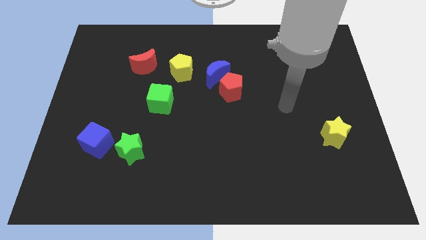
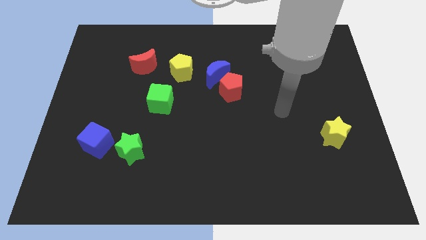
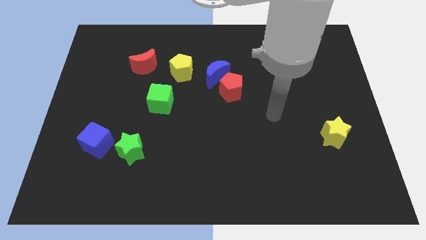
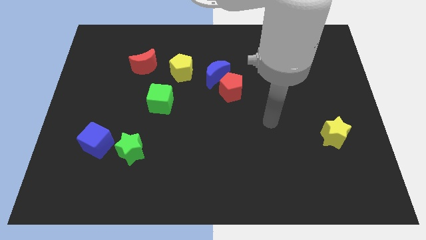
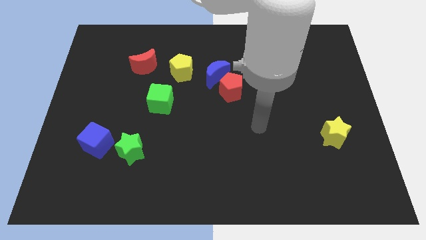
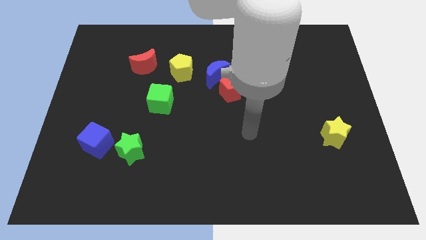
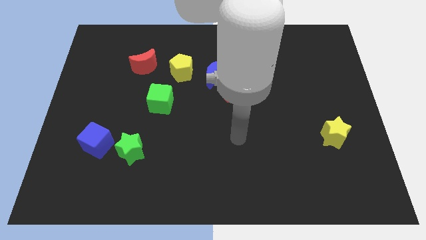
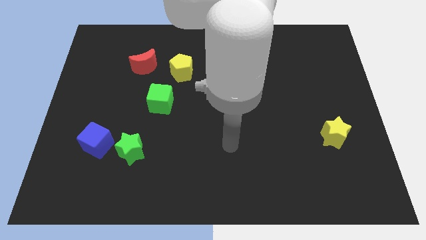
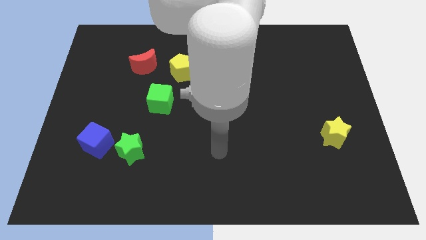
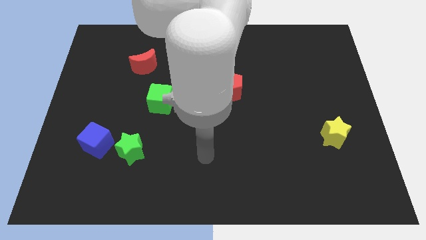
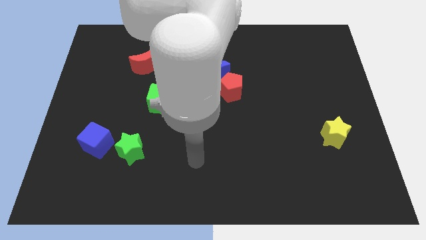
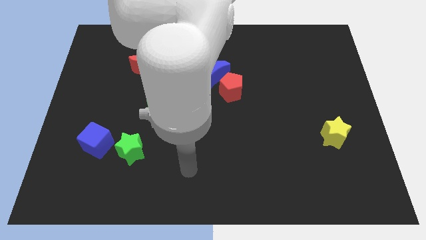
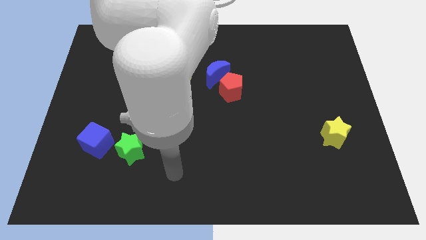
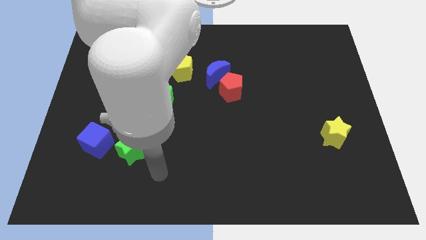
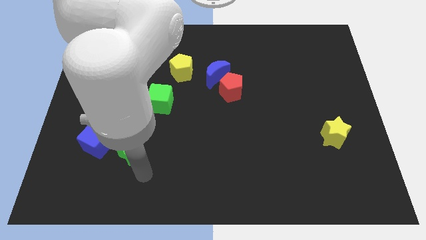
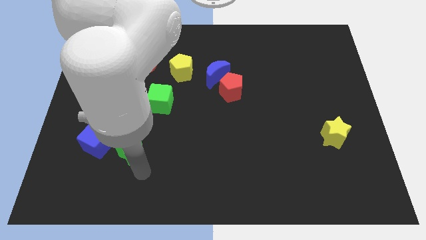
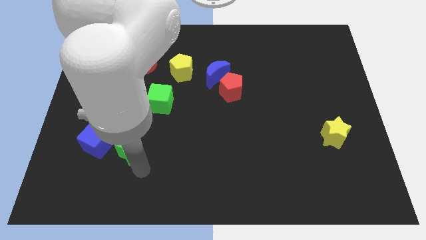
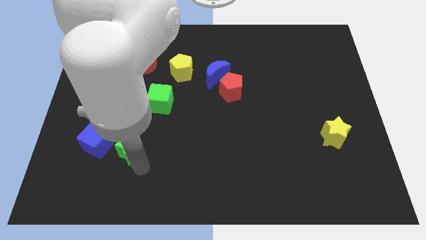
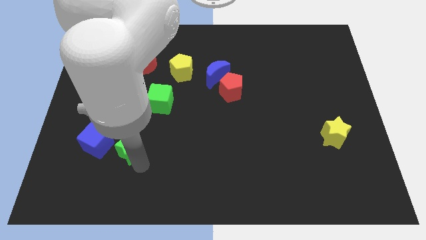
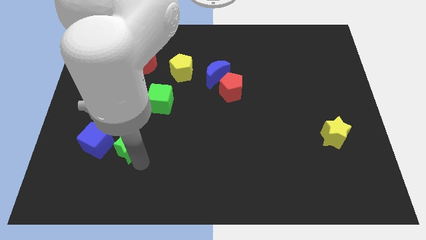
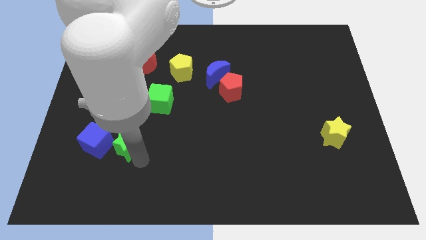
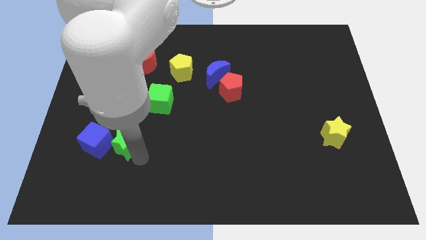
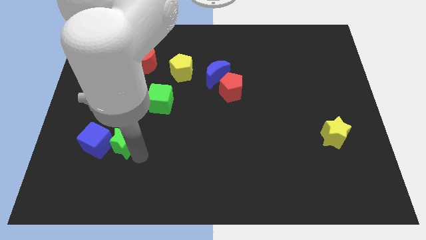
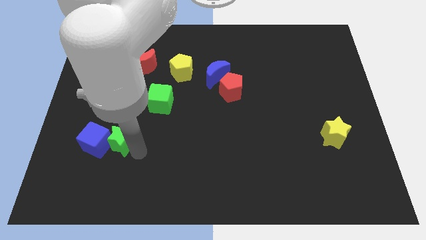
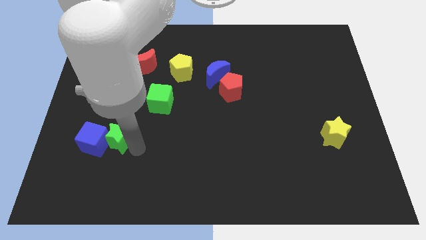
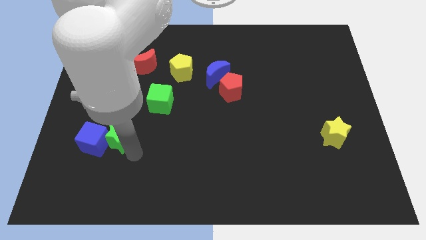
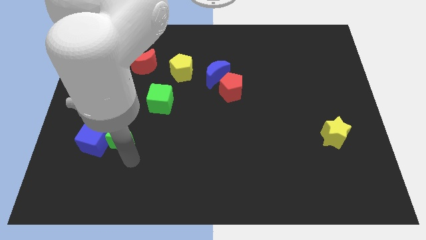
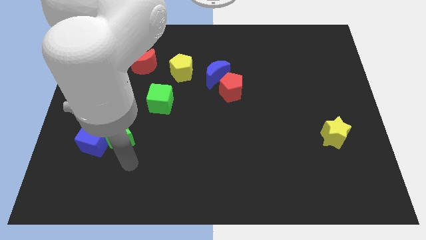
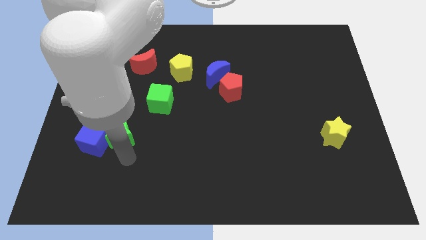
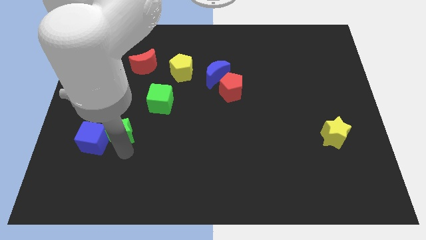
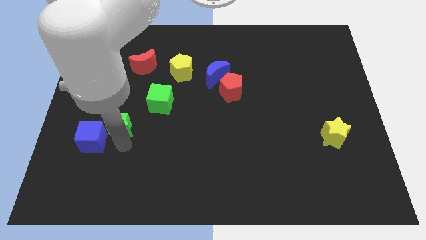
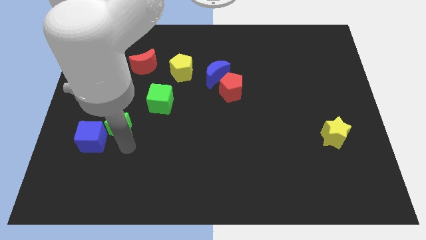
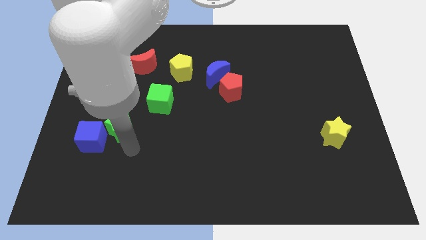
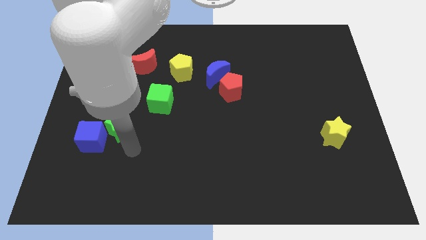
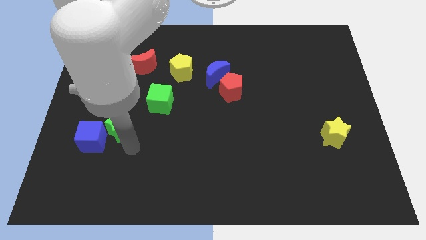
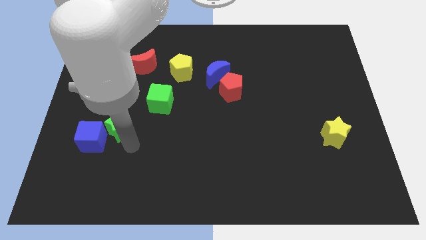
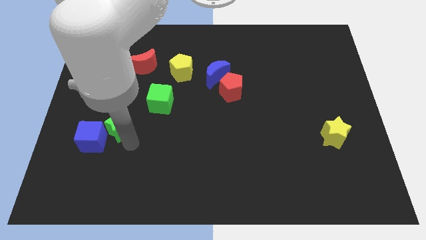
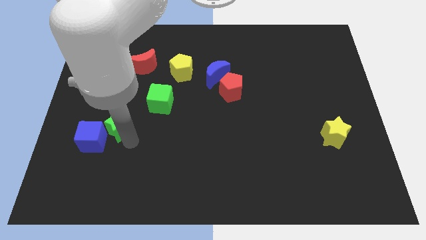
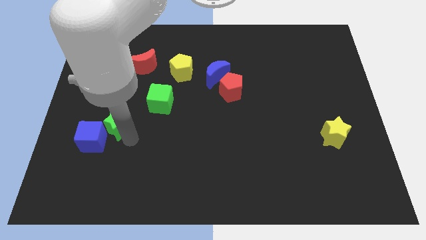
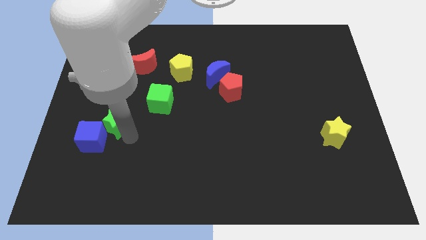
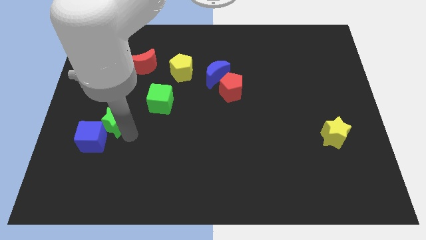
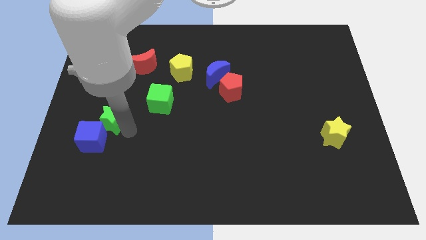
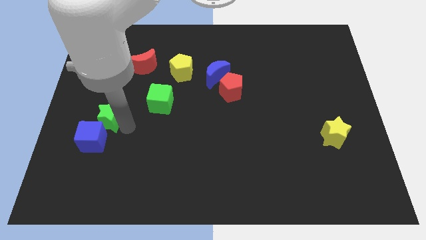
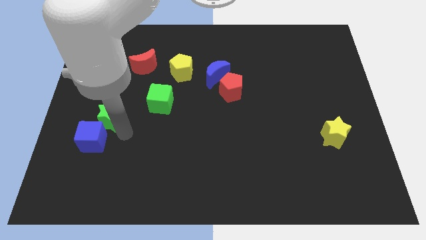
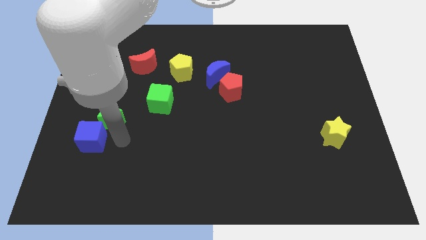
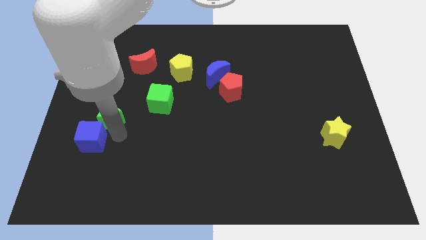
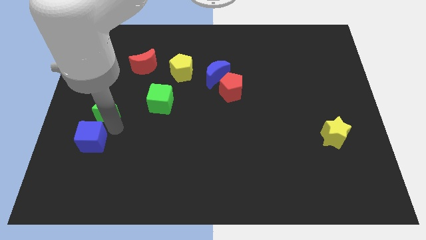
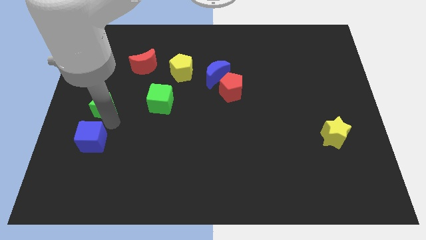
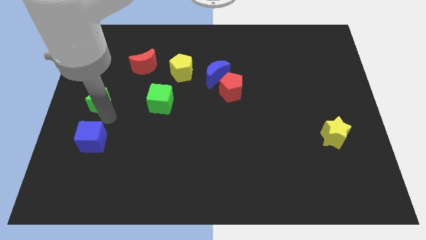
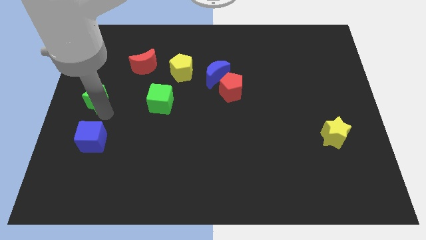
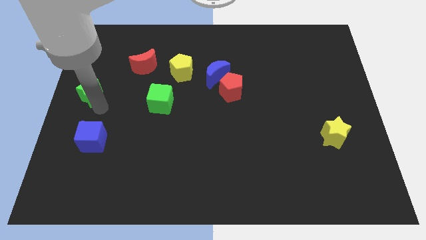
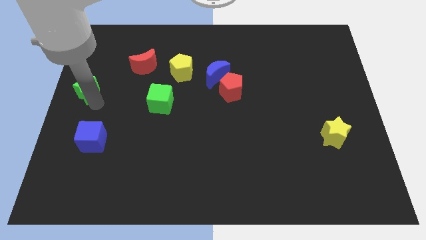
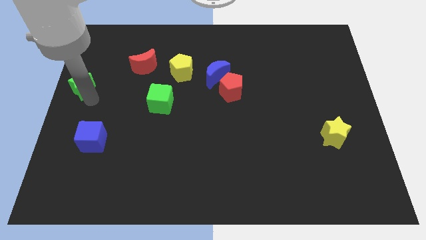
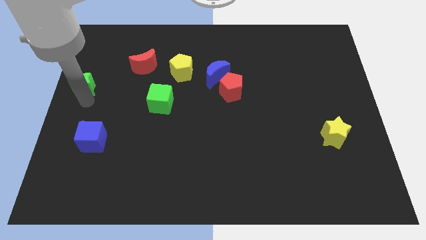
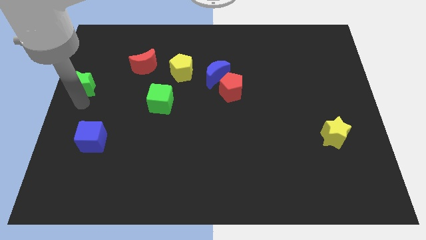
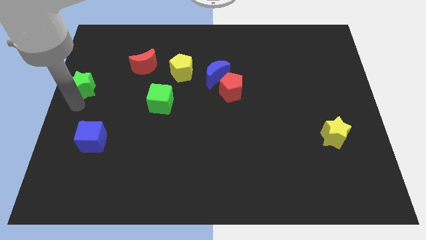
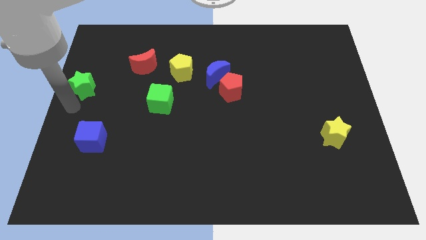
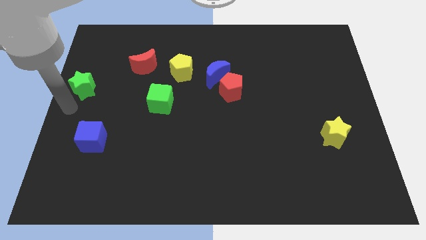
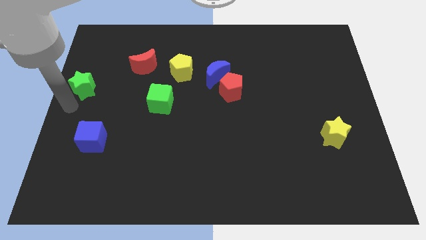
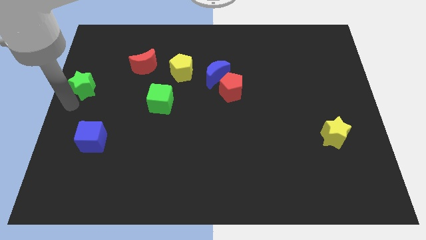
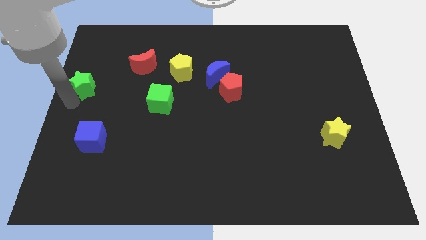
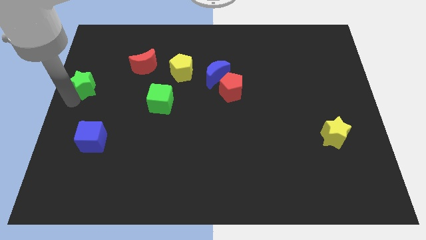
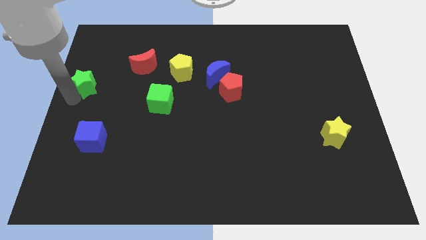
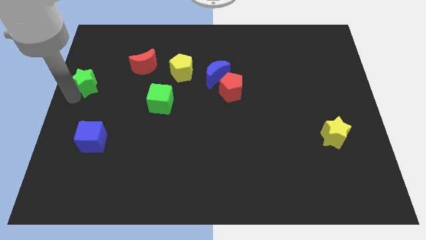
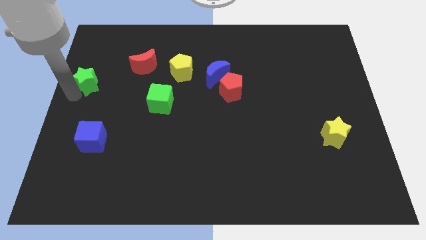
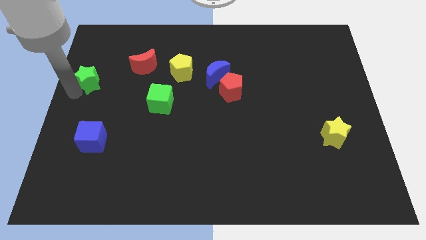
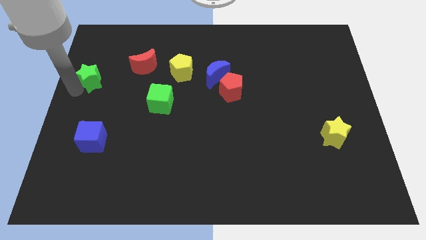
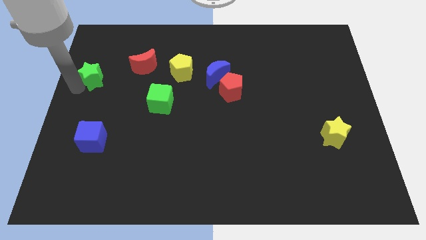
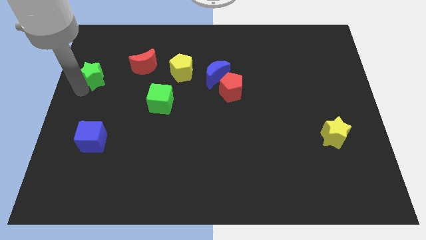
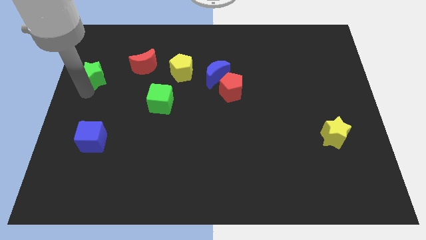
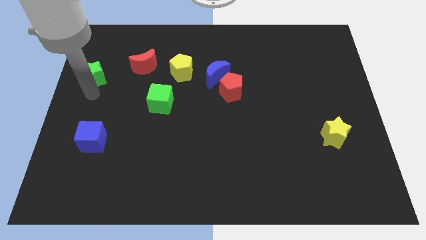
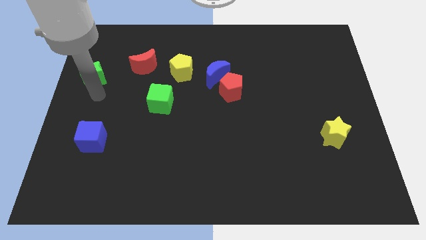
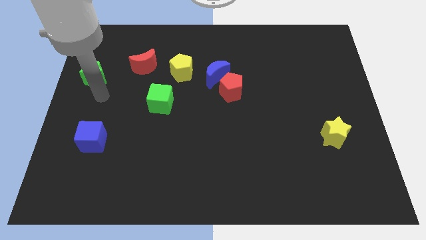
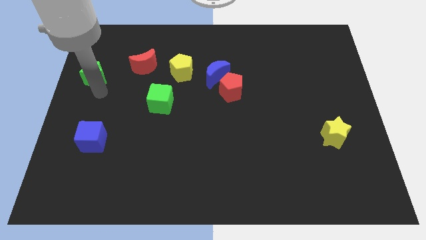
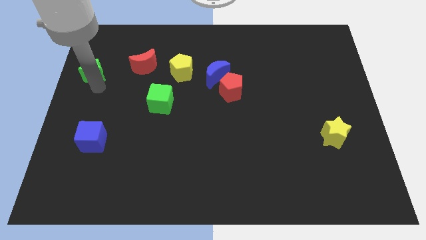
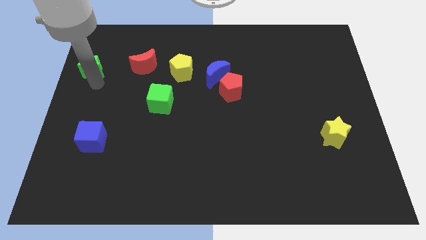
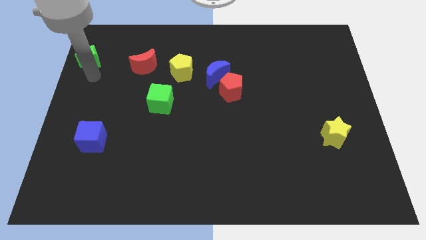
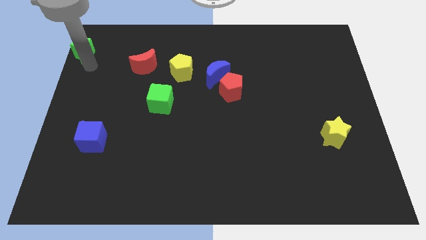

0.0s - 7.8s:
put the green star to the upper left corner
